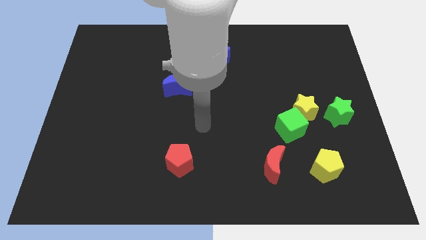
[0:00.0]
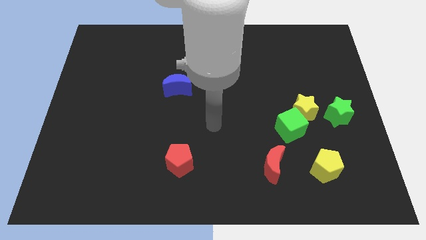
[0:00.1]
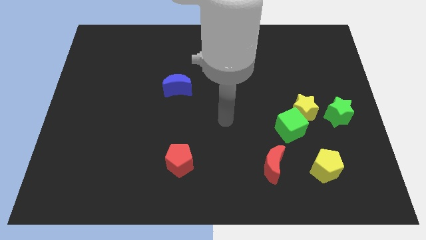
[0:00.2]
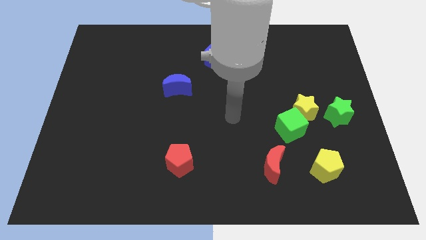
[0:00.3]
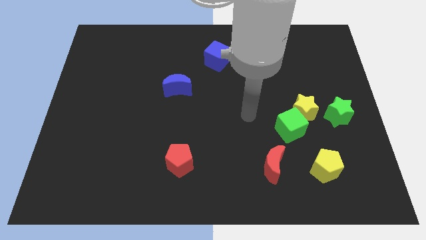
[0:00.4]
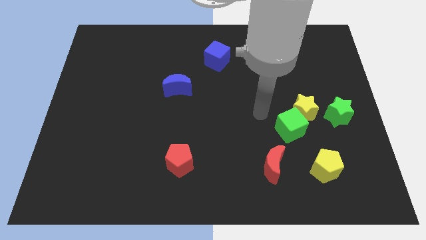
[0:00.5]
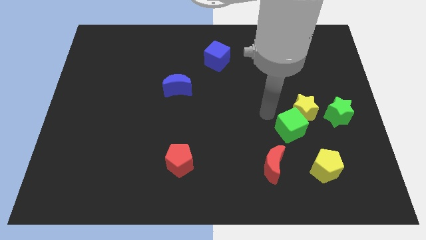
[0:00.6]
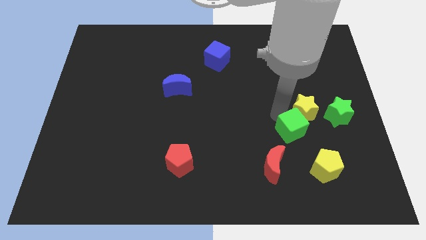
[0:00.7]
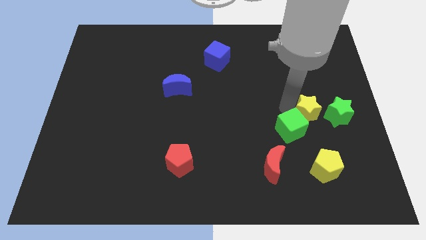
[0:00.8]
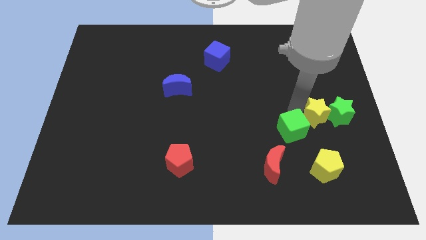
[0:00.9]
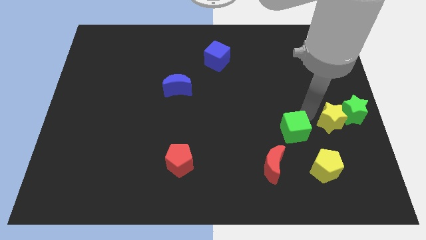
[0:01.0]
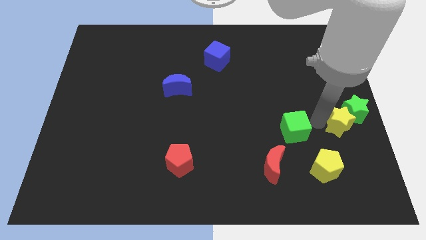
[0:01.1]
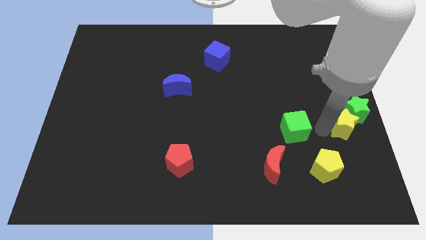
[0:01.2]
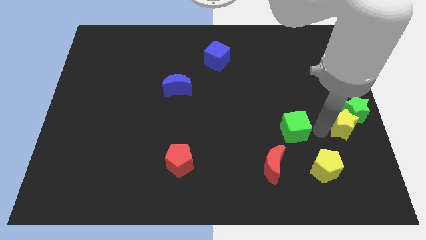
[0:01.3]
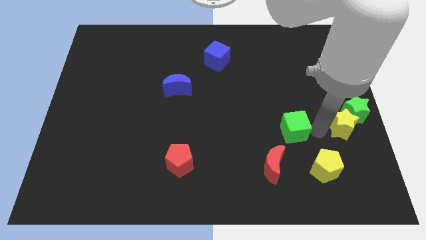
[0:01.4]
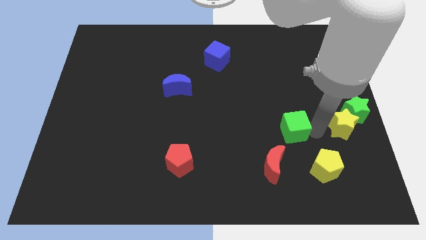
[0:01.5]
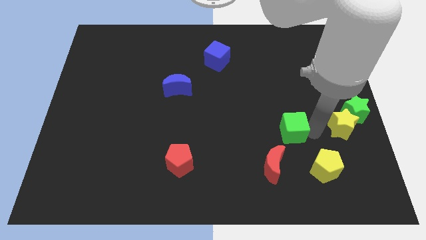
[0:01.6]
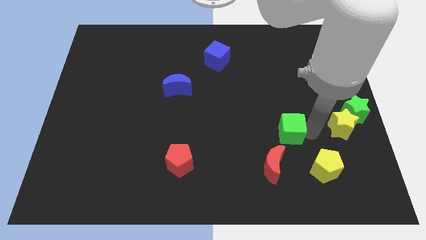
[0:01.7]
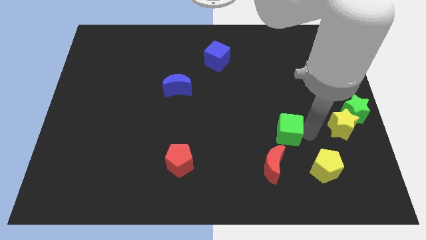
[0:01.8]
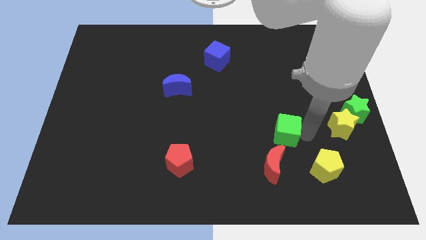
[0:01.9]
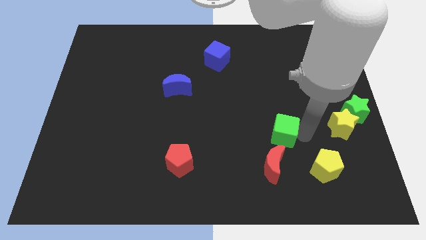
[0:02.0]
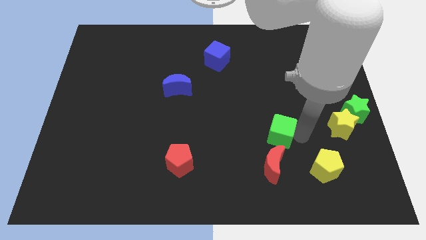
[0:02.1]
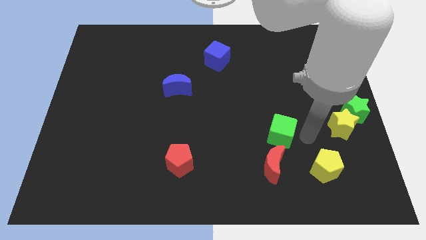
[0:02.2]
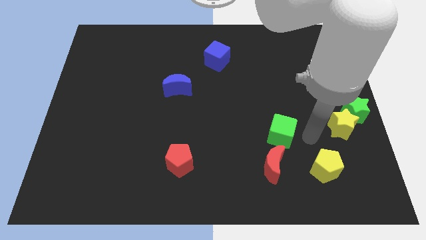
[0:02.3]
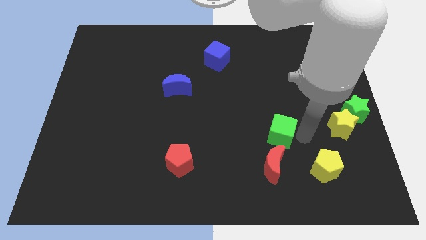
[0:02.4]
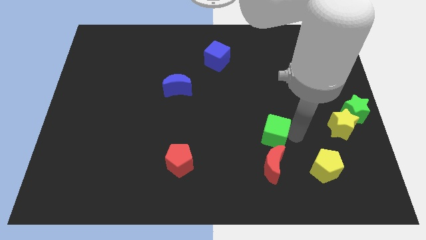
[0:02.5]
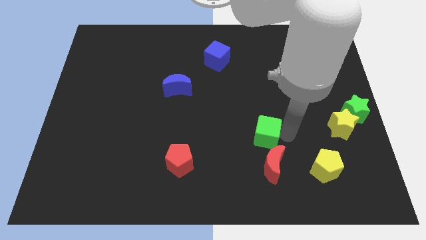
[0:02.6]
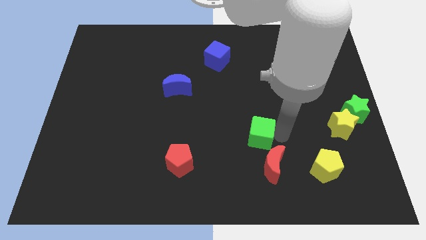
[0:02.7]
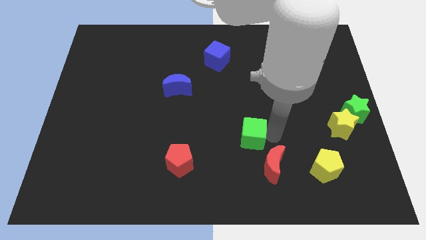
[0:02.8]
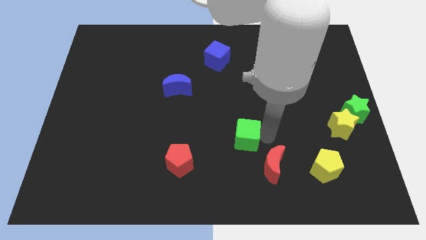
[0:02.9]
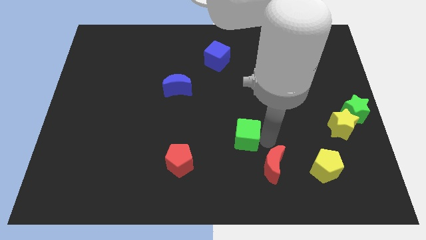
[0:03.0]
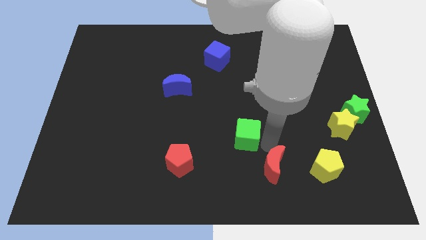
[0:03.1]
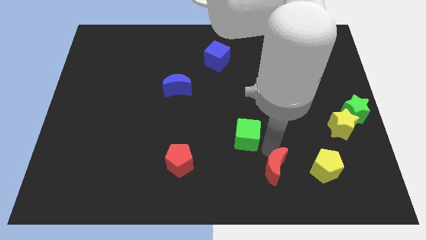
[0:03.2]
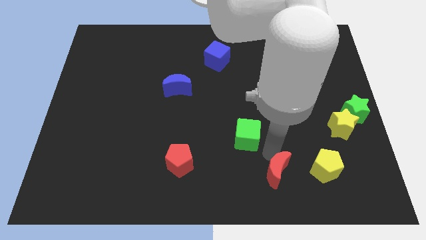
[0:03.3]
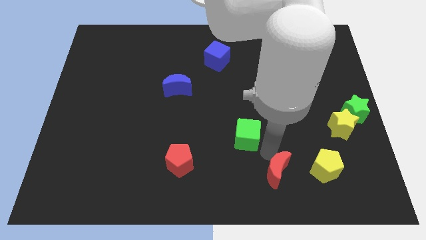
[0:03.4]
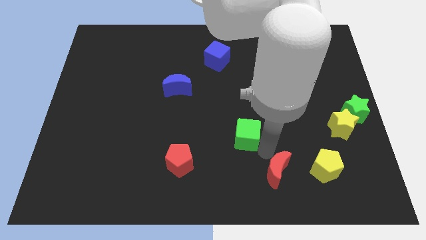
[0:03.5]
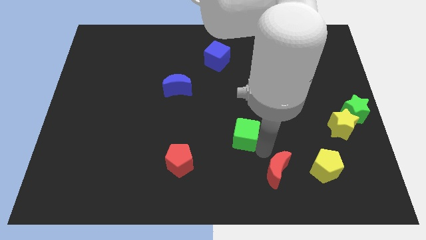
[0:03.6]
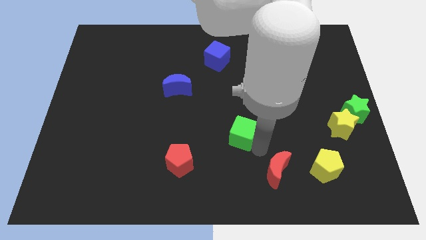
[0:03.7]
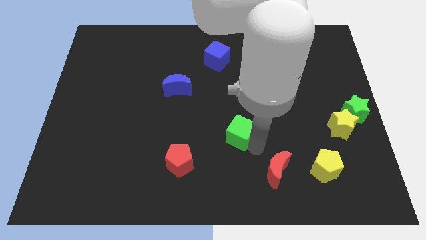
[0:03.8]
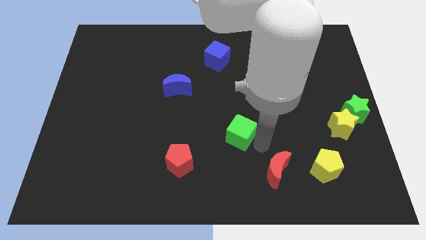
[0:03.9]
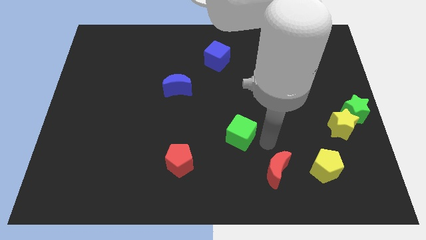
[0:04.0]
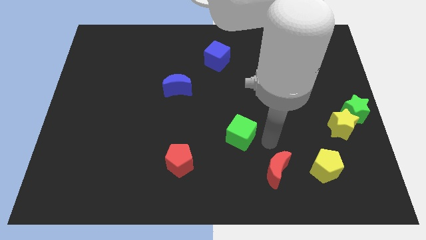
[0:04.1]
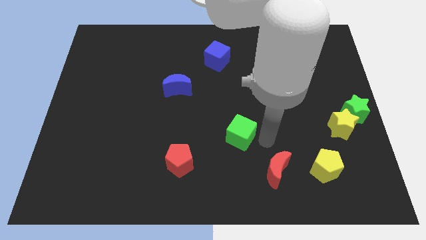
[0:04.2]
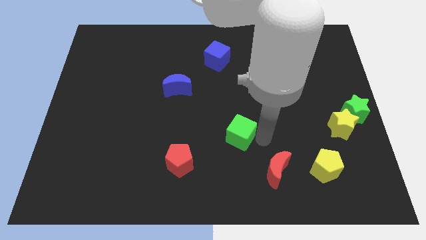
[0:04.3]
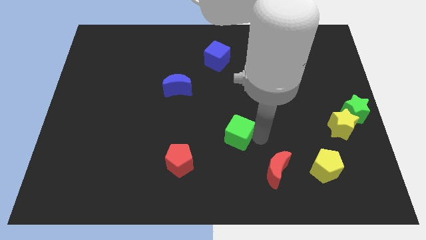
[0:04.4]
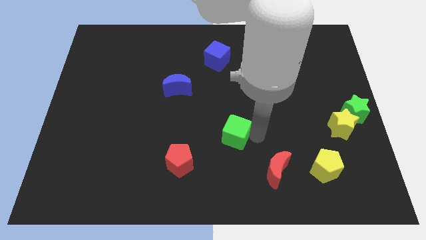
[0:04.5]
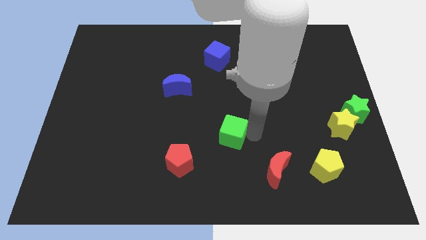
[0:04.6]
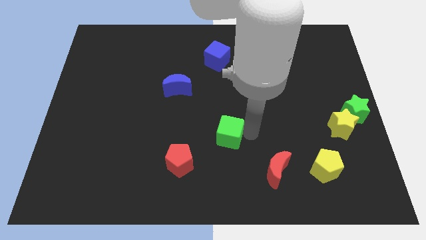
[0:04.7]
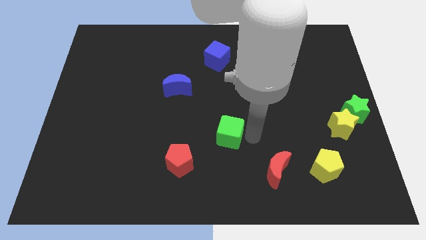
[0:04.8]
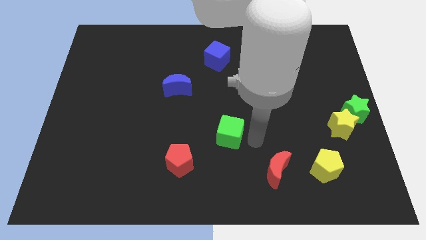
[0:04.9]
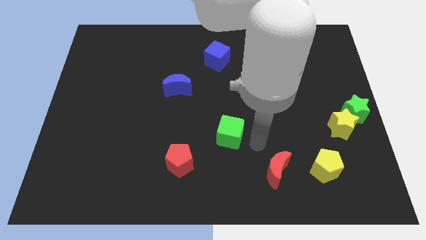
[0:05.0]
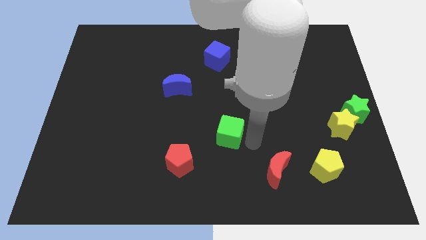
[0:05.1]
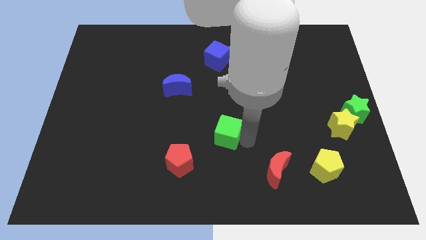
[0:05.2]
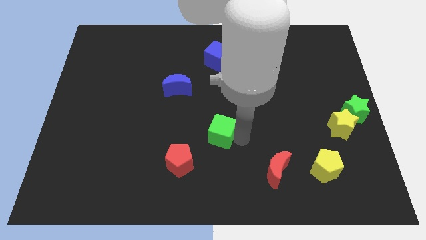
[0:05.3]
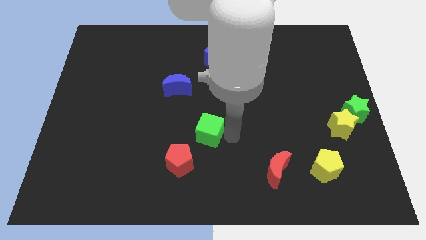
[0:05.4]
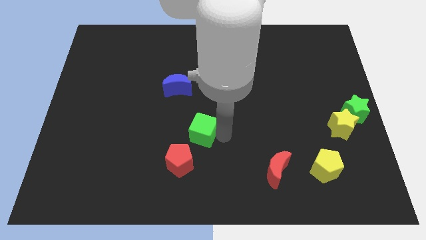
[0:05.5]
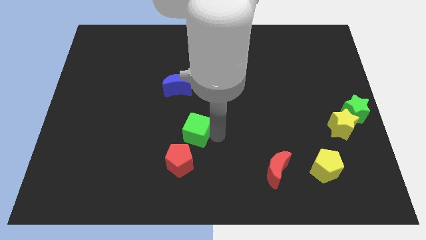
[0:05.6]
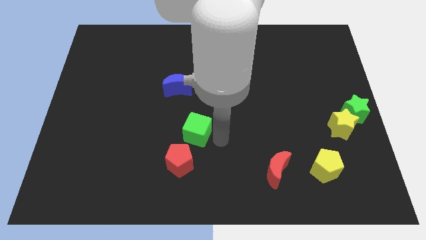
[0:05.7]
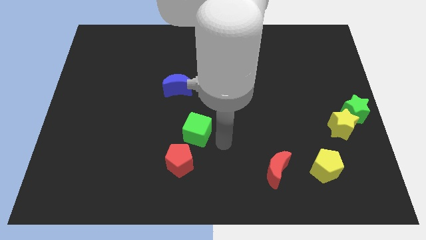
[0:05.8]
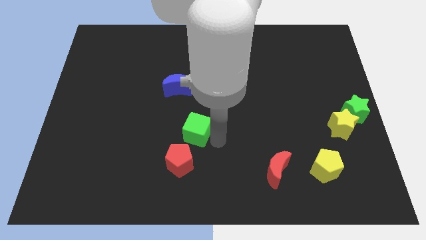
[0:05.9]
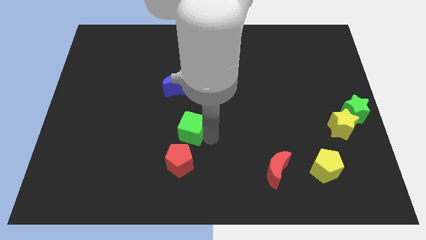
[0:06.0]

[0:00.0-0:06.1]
move the green cube to the bottom of the blue moon

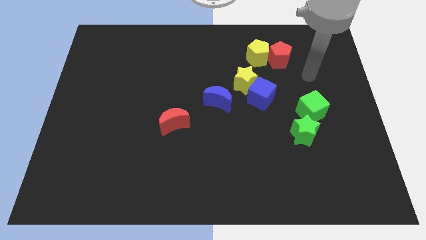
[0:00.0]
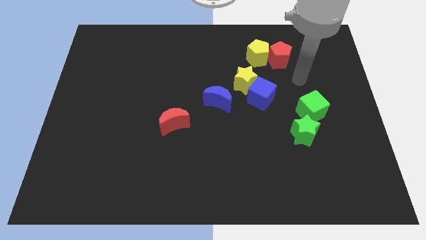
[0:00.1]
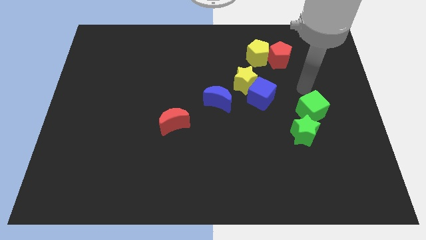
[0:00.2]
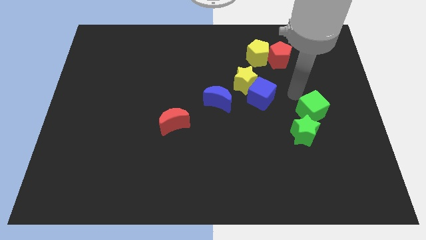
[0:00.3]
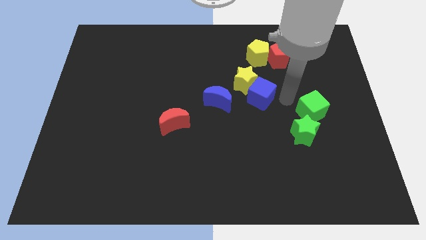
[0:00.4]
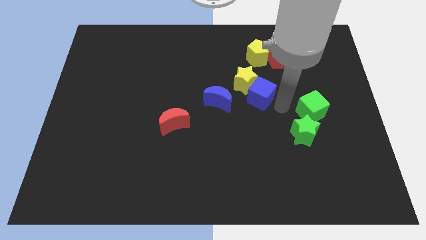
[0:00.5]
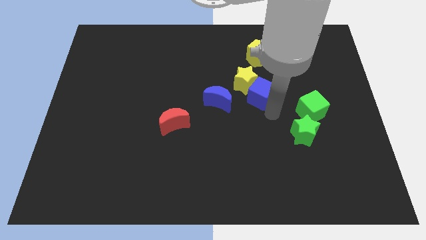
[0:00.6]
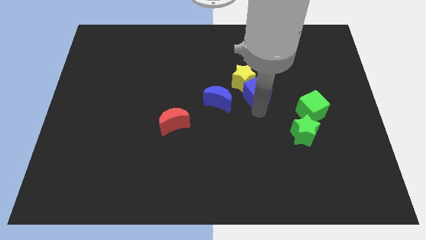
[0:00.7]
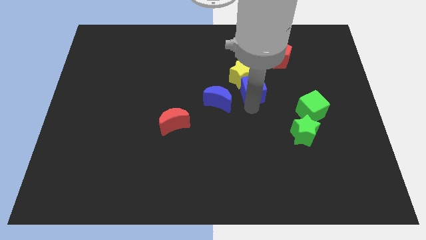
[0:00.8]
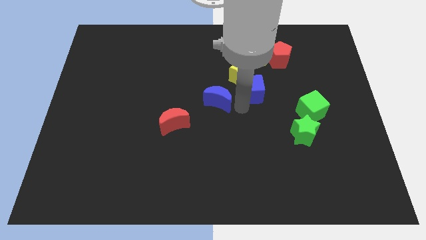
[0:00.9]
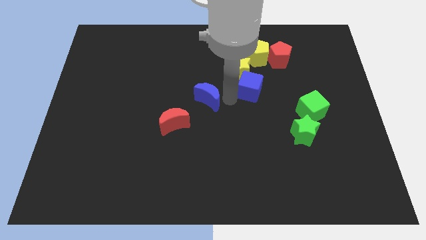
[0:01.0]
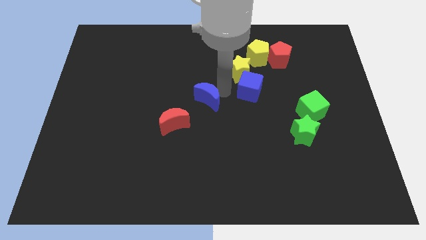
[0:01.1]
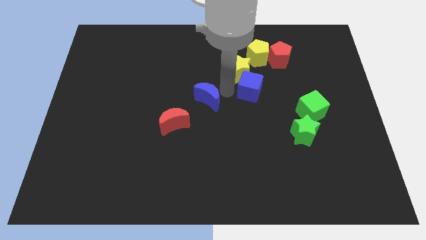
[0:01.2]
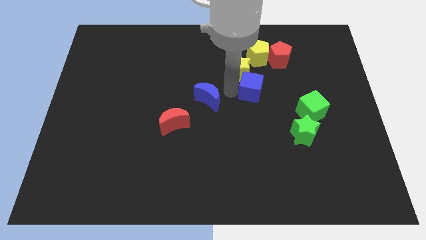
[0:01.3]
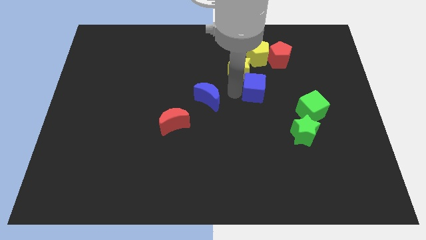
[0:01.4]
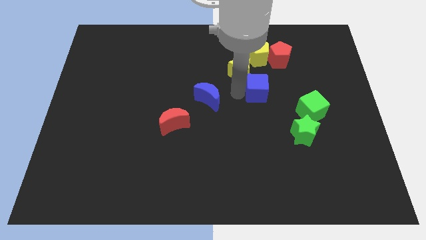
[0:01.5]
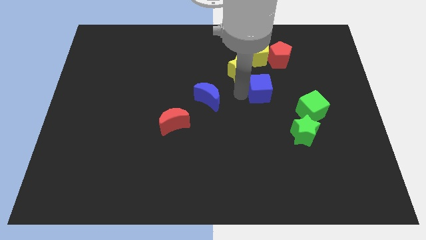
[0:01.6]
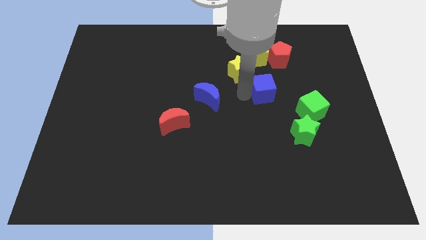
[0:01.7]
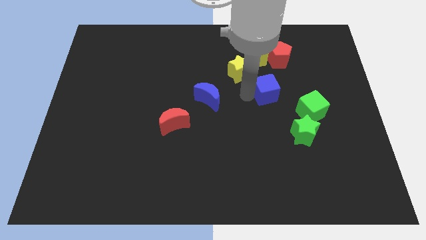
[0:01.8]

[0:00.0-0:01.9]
slide the blue cube to the bottom of the red pentagon
